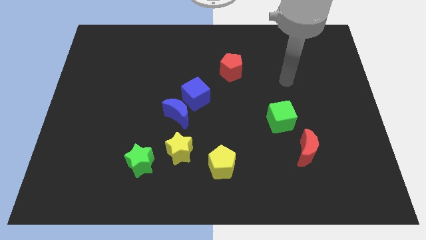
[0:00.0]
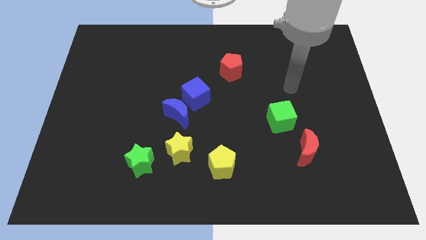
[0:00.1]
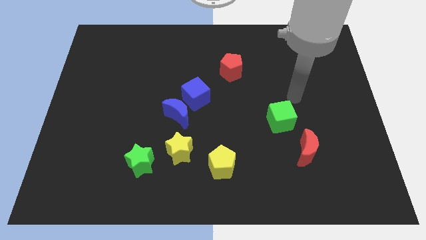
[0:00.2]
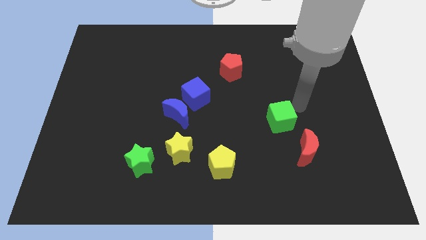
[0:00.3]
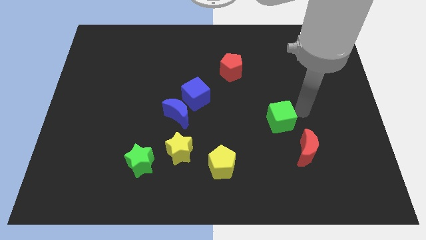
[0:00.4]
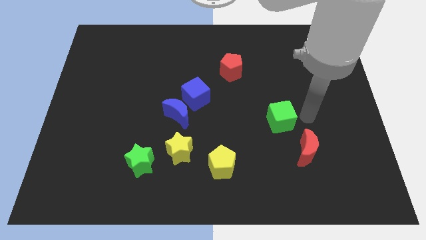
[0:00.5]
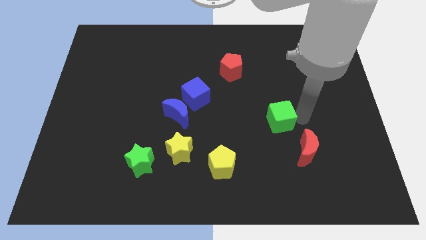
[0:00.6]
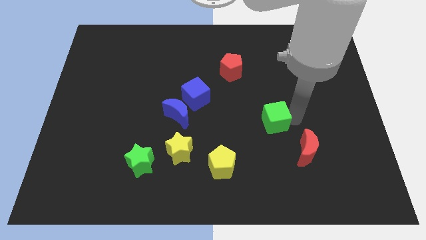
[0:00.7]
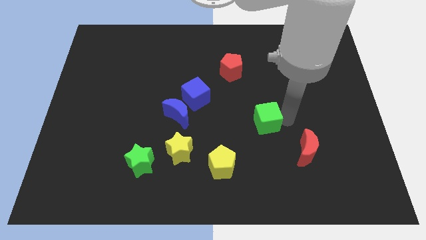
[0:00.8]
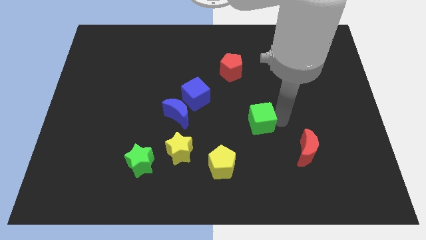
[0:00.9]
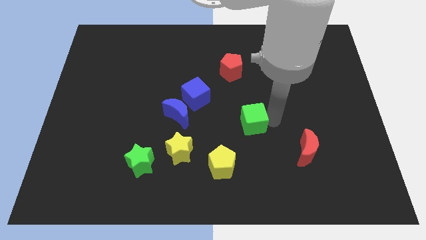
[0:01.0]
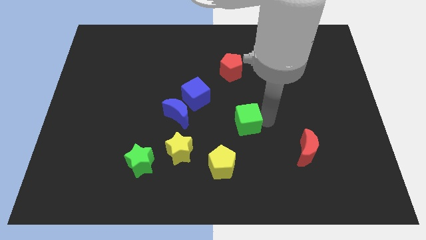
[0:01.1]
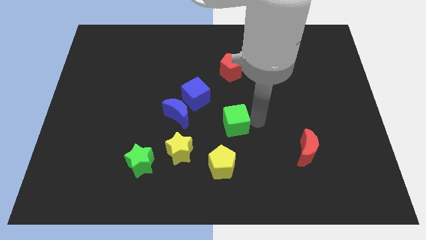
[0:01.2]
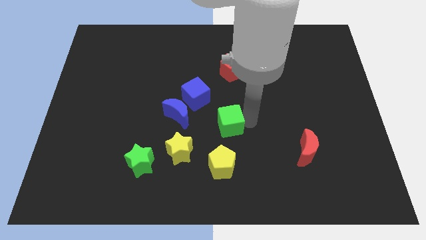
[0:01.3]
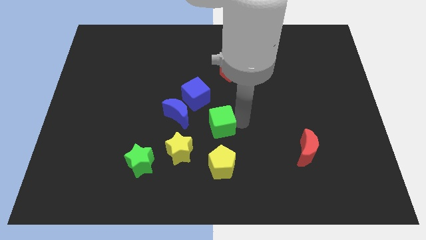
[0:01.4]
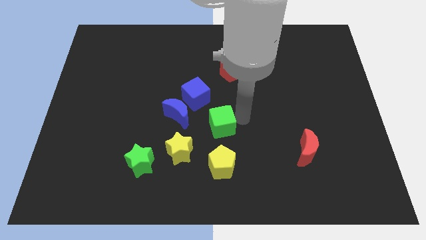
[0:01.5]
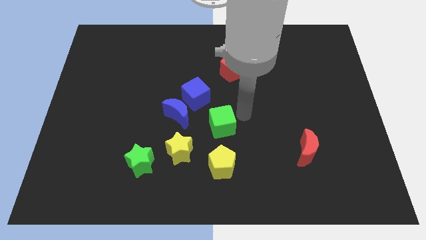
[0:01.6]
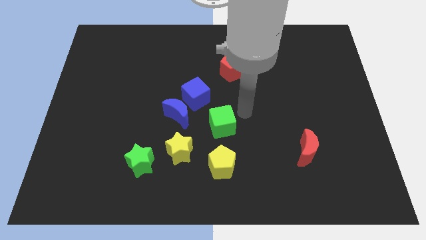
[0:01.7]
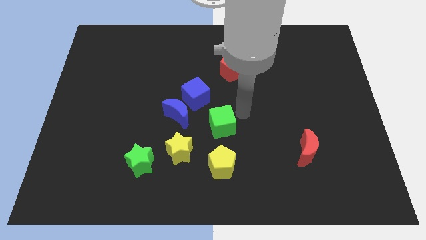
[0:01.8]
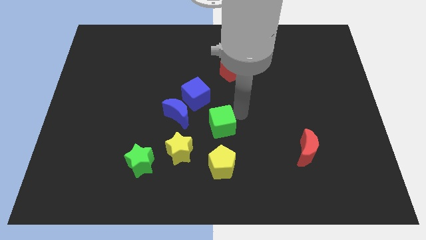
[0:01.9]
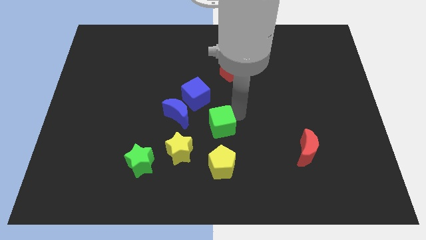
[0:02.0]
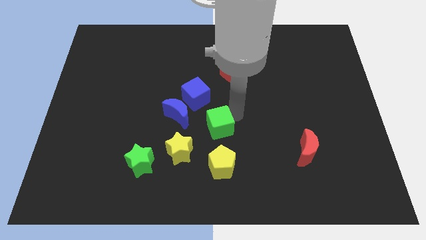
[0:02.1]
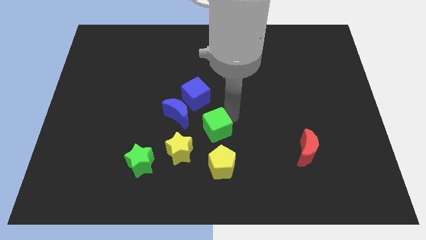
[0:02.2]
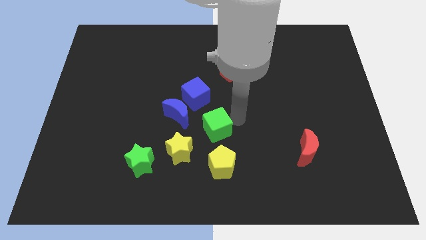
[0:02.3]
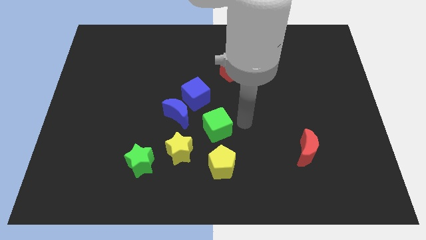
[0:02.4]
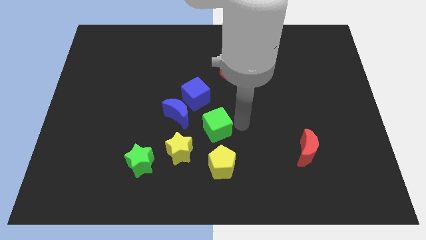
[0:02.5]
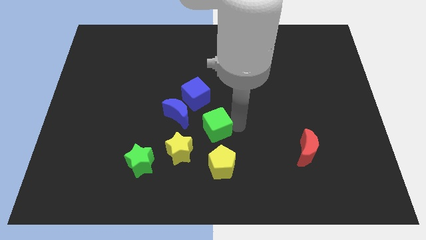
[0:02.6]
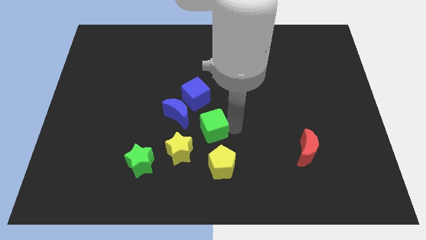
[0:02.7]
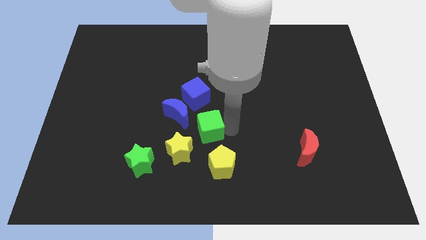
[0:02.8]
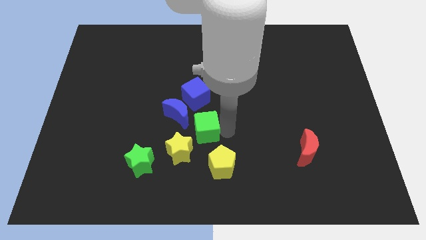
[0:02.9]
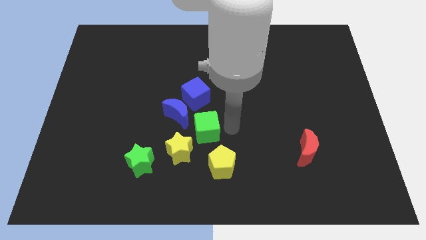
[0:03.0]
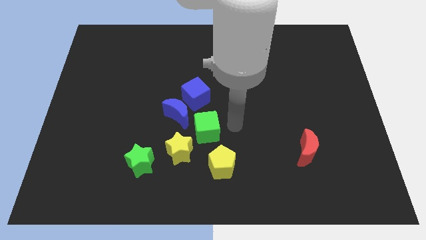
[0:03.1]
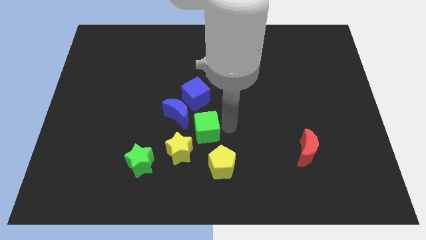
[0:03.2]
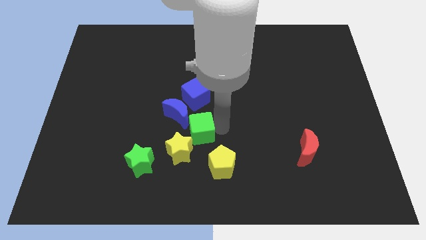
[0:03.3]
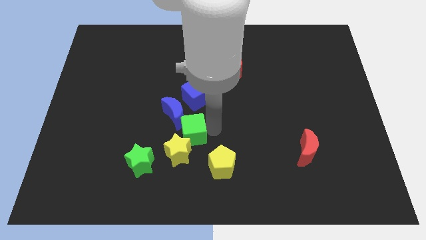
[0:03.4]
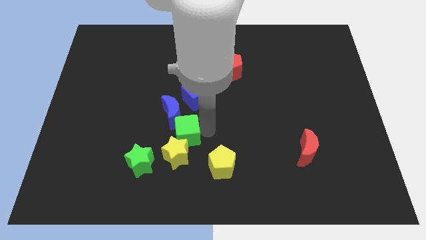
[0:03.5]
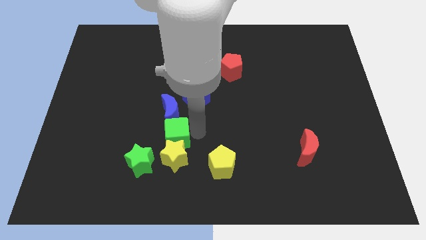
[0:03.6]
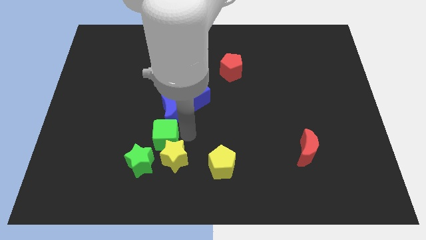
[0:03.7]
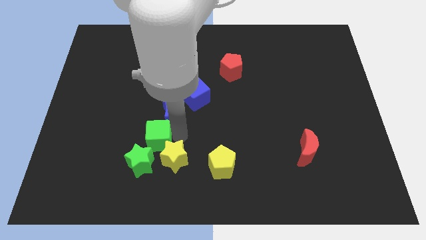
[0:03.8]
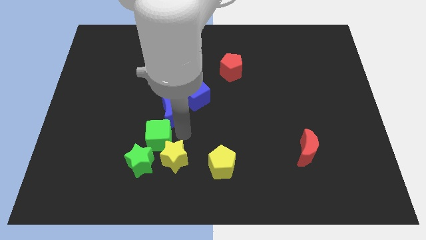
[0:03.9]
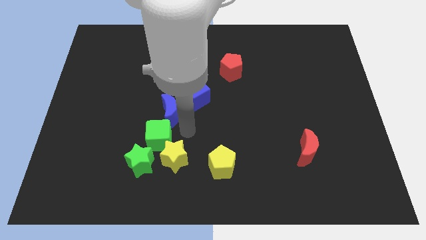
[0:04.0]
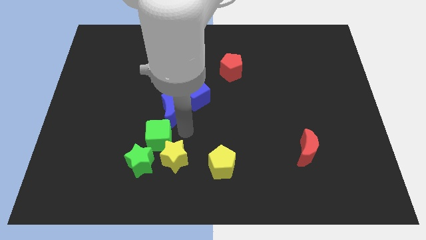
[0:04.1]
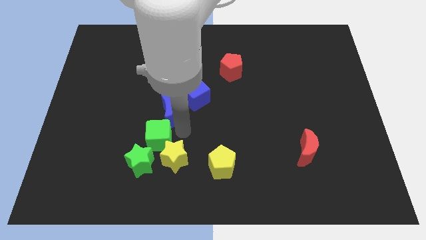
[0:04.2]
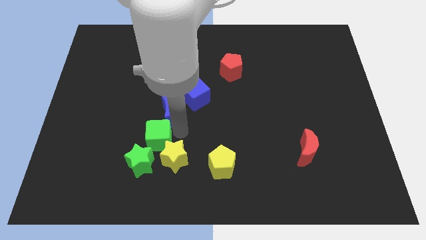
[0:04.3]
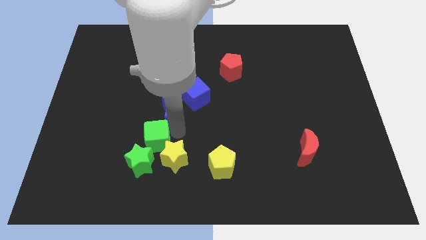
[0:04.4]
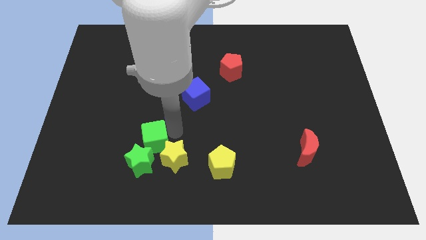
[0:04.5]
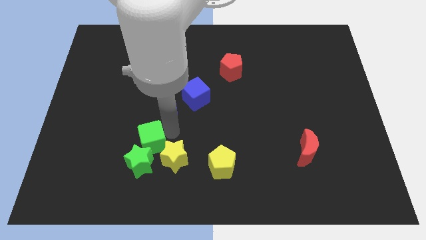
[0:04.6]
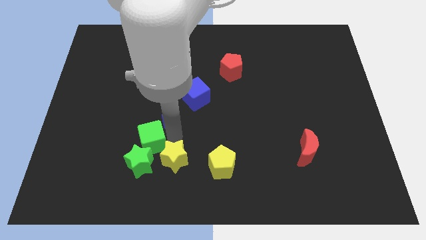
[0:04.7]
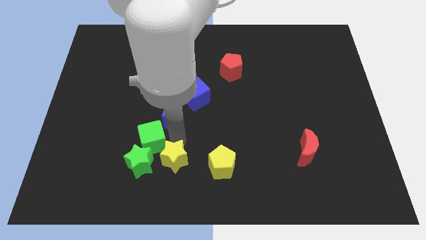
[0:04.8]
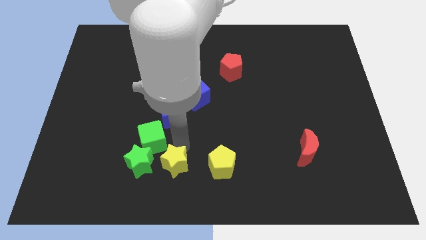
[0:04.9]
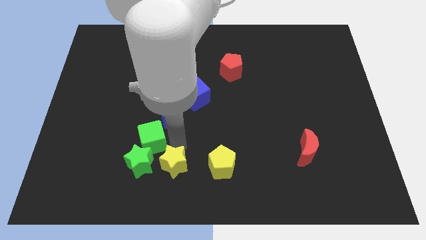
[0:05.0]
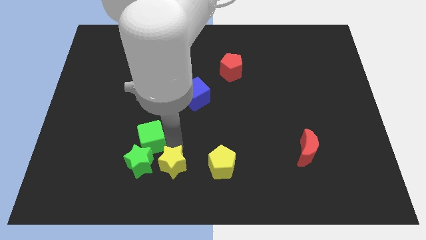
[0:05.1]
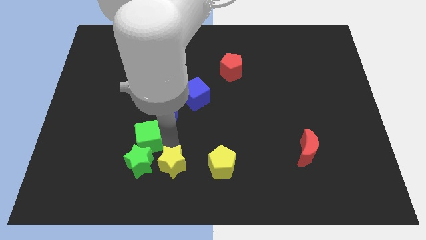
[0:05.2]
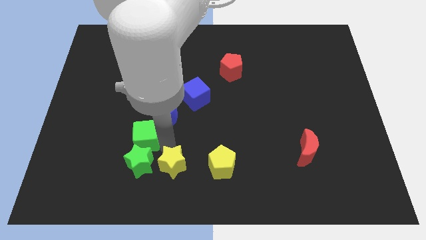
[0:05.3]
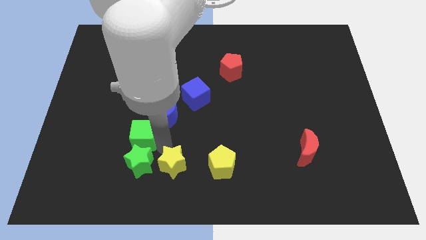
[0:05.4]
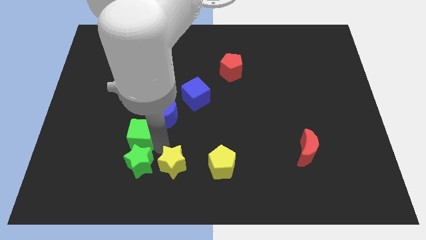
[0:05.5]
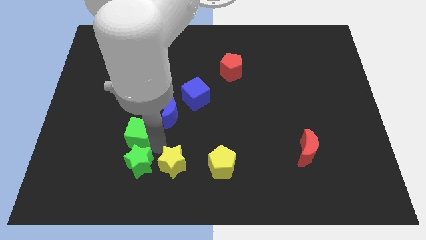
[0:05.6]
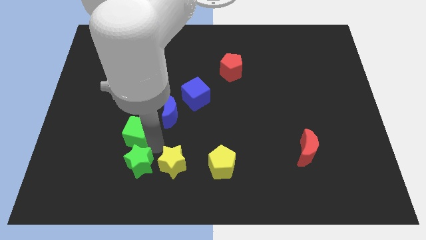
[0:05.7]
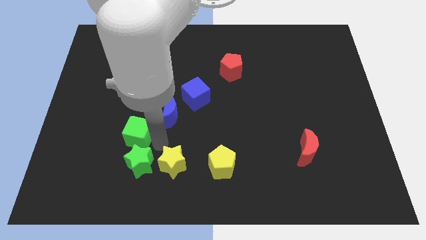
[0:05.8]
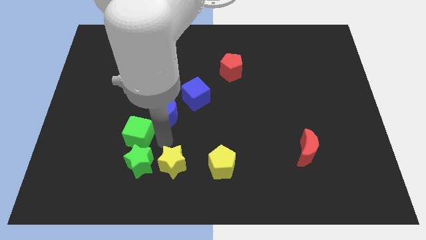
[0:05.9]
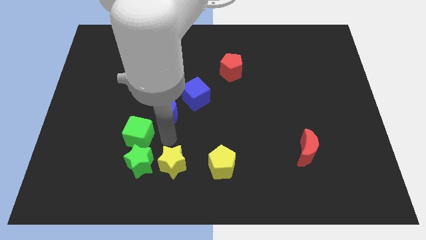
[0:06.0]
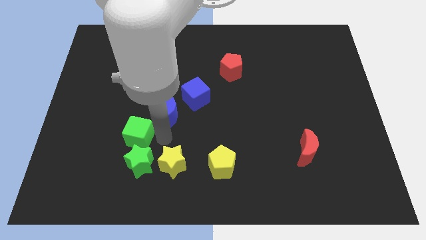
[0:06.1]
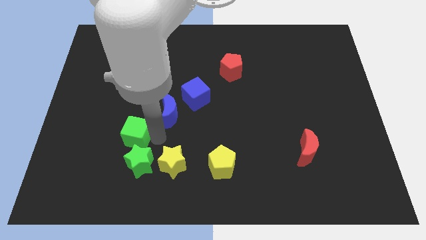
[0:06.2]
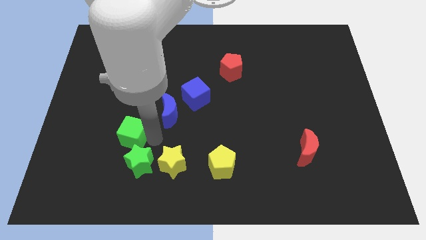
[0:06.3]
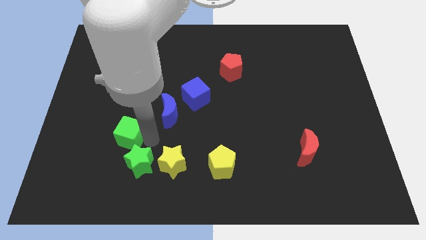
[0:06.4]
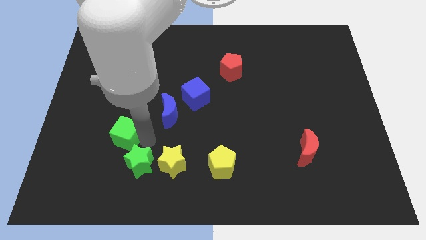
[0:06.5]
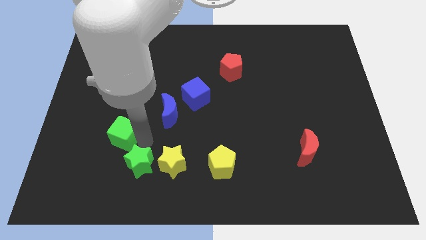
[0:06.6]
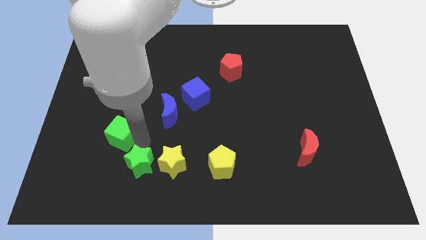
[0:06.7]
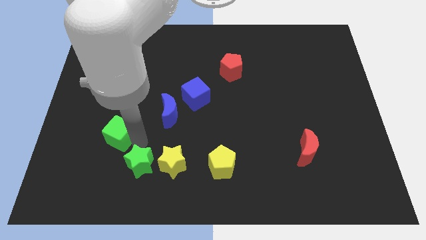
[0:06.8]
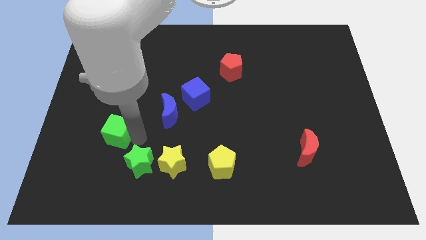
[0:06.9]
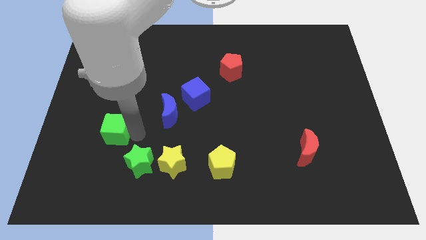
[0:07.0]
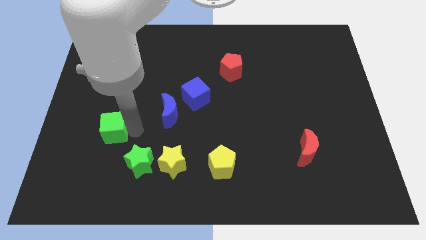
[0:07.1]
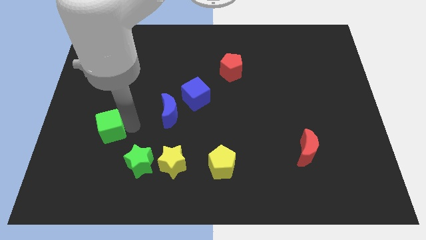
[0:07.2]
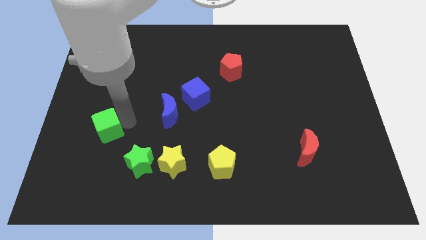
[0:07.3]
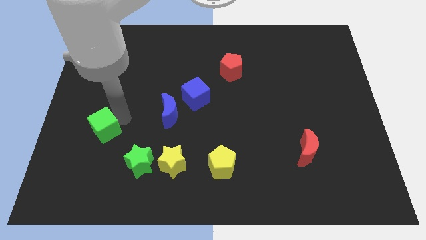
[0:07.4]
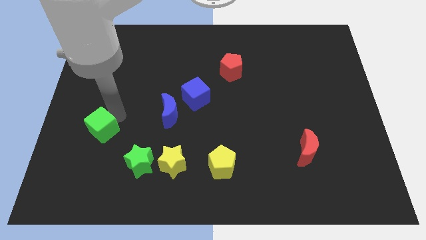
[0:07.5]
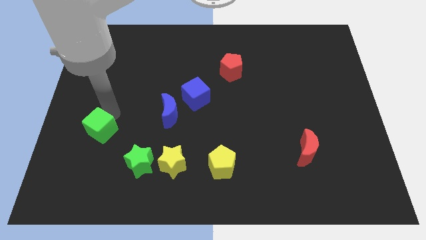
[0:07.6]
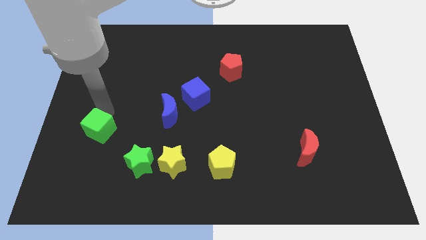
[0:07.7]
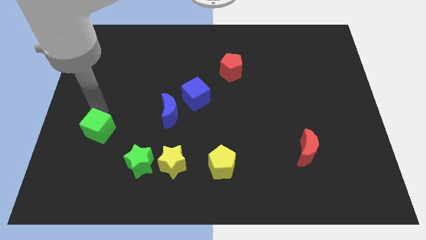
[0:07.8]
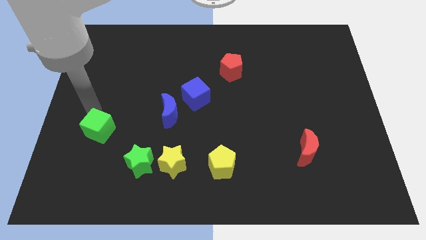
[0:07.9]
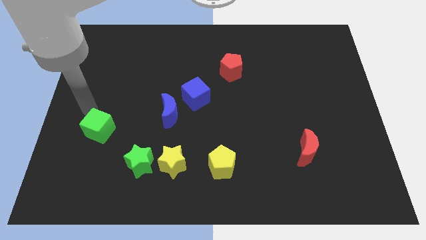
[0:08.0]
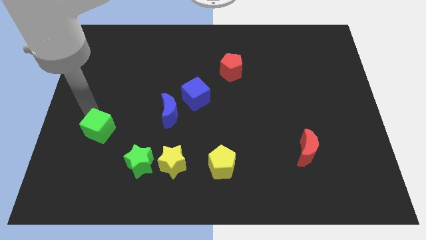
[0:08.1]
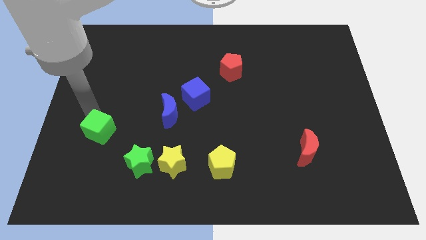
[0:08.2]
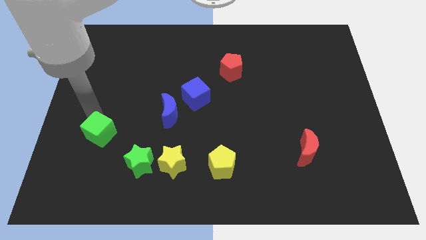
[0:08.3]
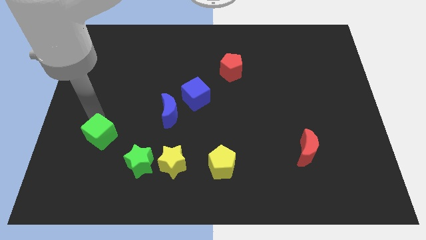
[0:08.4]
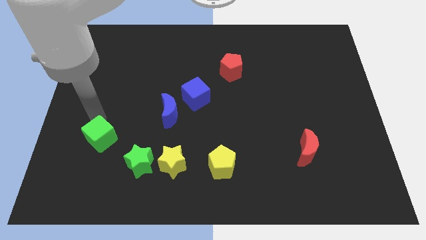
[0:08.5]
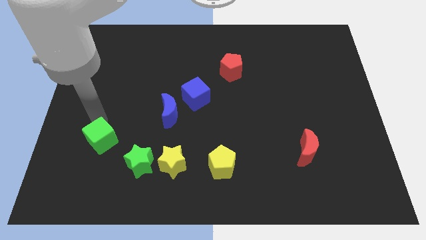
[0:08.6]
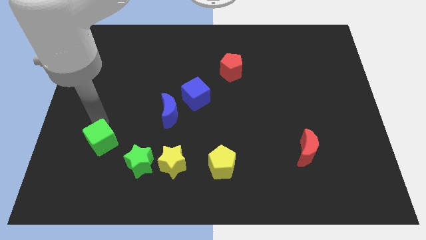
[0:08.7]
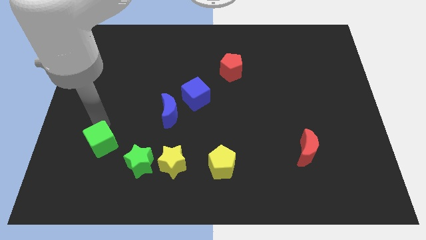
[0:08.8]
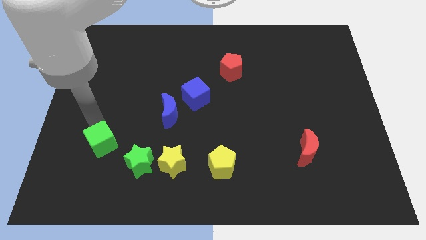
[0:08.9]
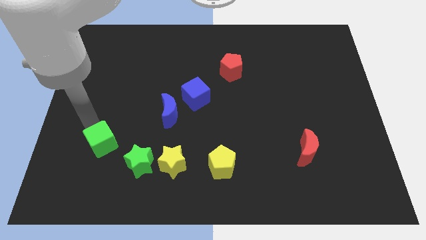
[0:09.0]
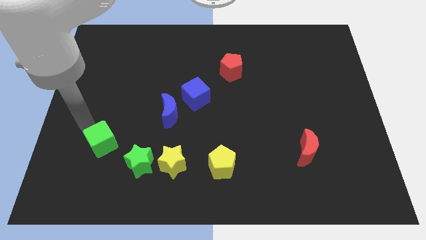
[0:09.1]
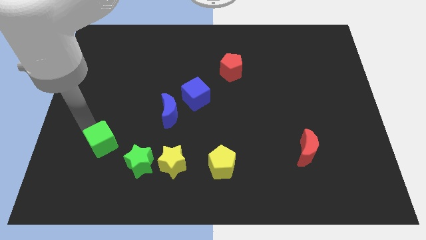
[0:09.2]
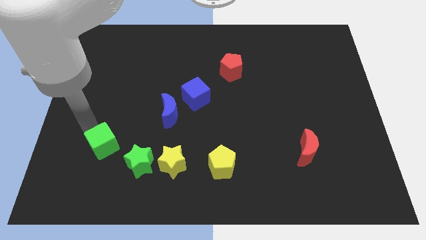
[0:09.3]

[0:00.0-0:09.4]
push the green cube to the left of the green star
